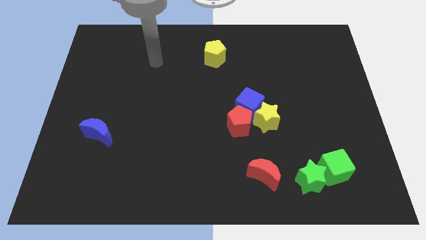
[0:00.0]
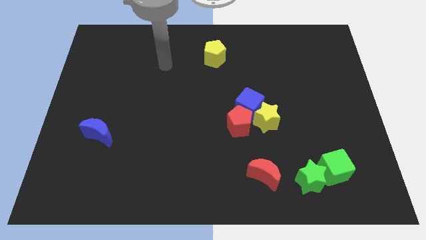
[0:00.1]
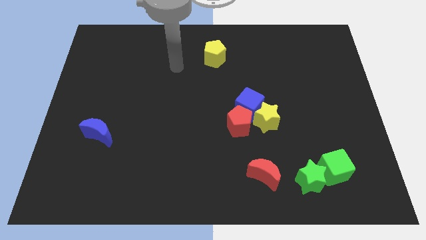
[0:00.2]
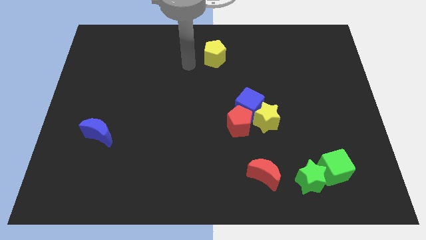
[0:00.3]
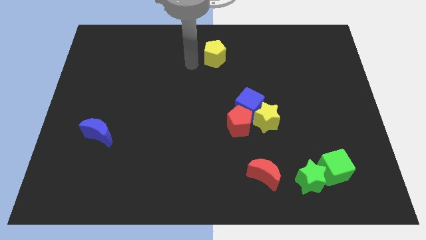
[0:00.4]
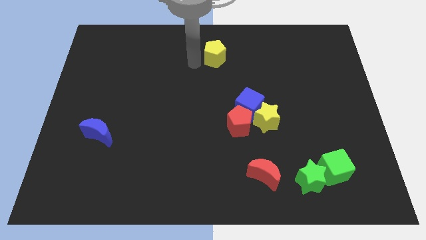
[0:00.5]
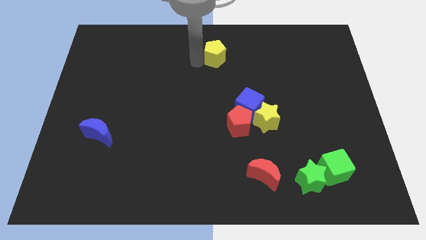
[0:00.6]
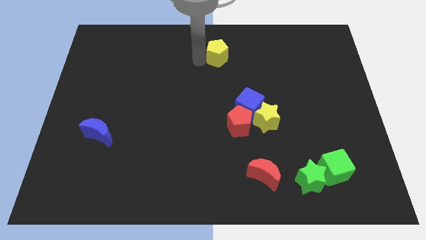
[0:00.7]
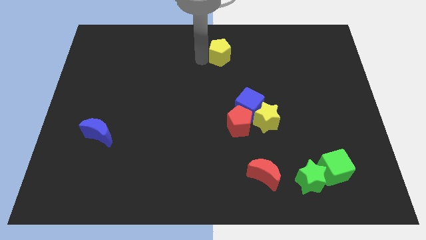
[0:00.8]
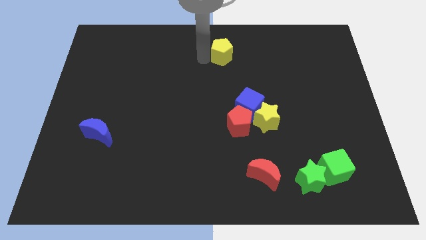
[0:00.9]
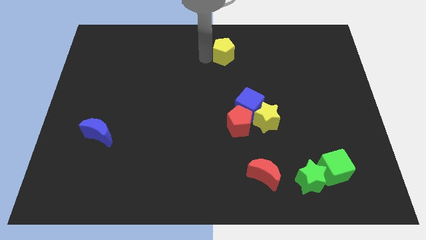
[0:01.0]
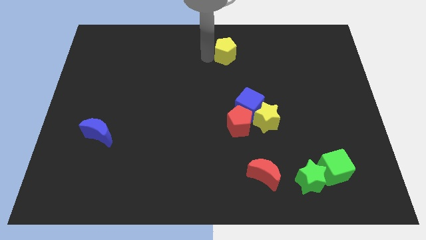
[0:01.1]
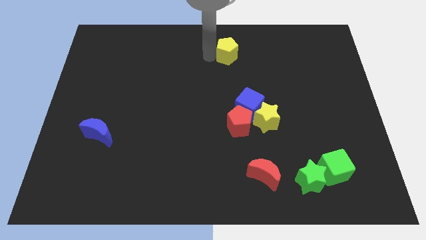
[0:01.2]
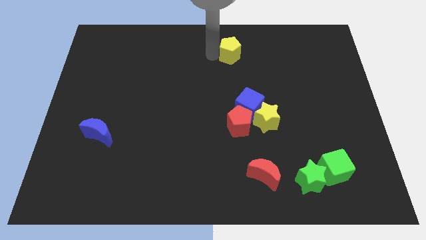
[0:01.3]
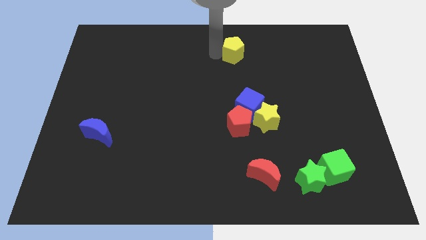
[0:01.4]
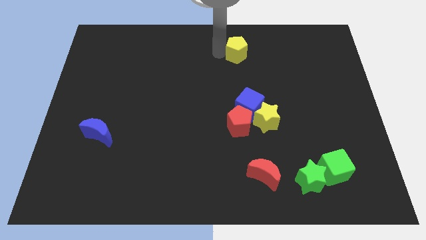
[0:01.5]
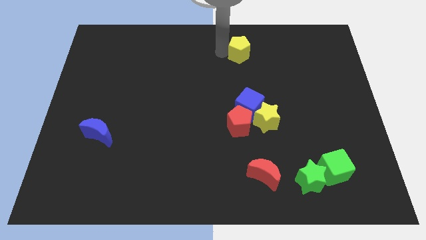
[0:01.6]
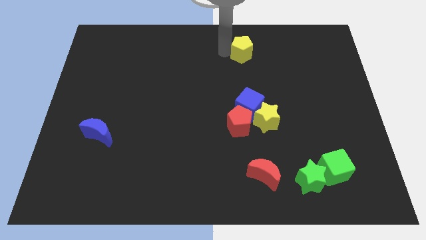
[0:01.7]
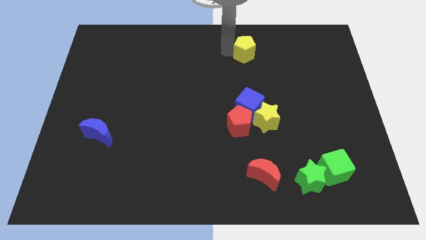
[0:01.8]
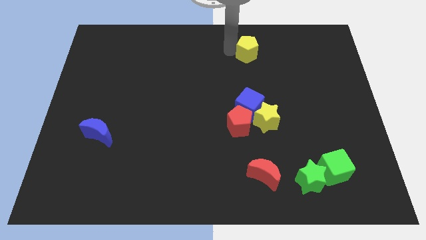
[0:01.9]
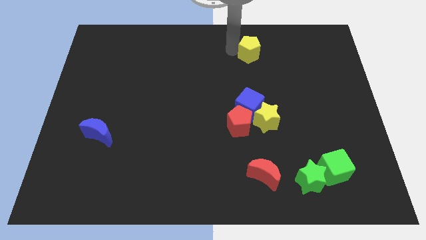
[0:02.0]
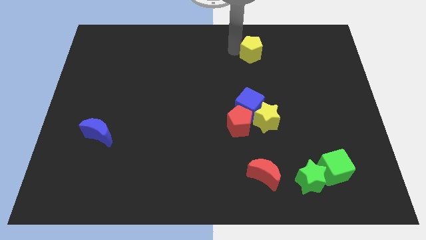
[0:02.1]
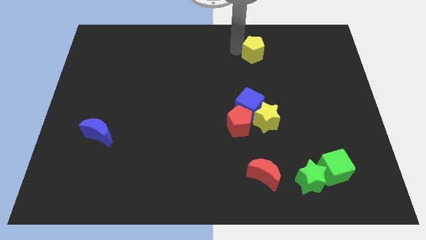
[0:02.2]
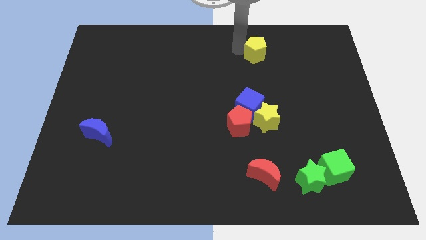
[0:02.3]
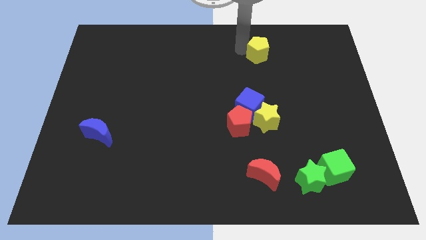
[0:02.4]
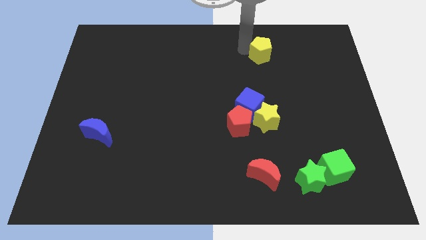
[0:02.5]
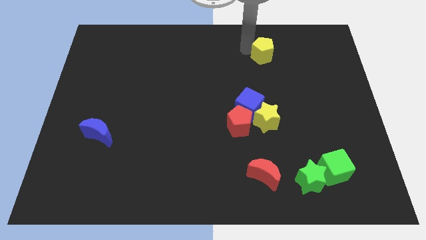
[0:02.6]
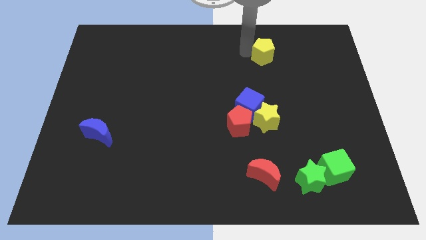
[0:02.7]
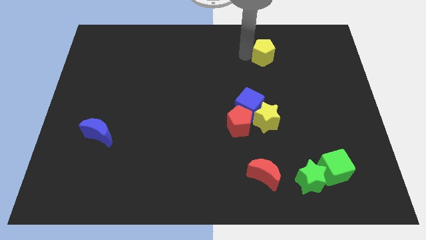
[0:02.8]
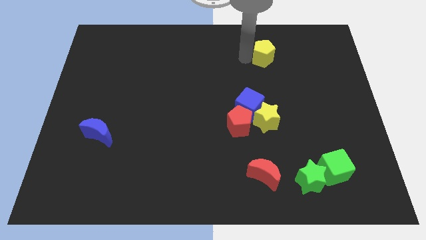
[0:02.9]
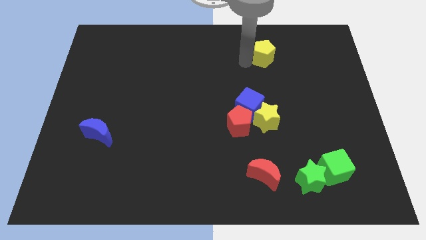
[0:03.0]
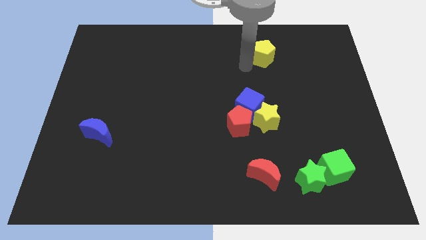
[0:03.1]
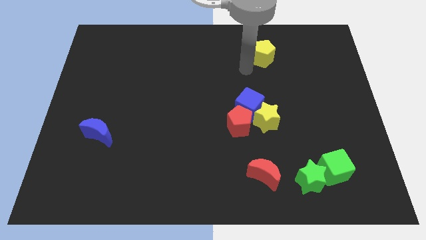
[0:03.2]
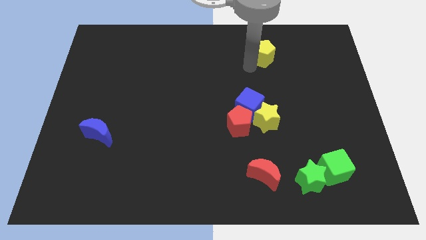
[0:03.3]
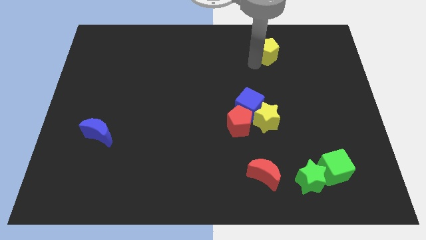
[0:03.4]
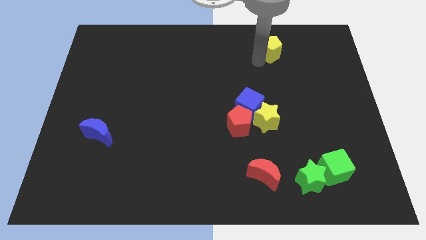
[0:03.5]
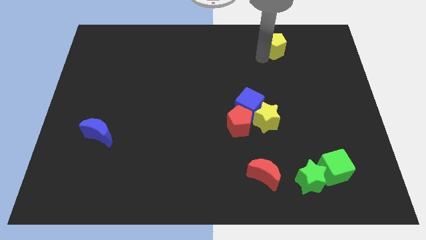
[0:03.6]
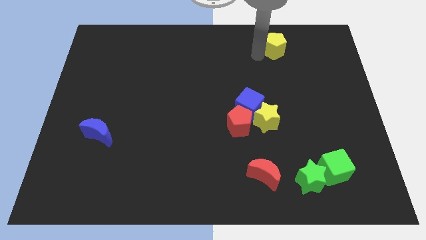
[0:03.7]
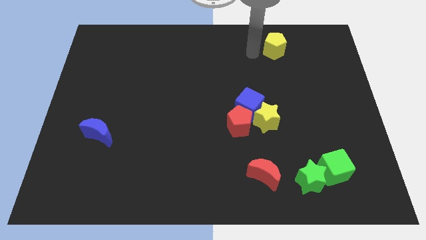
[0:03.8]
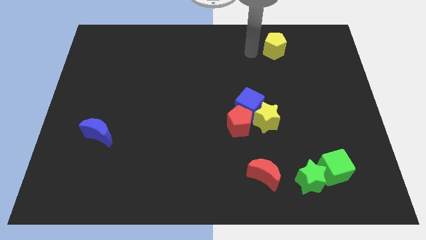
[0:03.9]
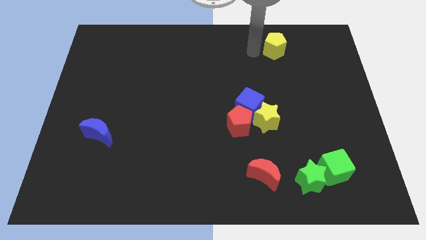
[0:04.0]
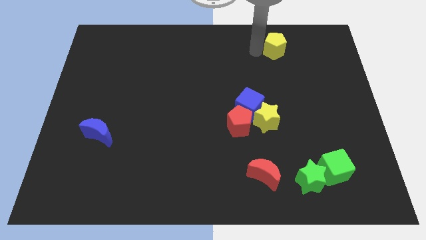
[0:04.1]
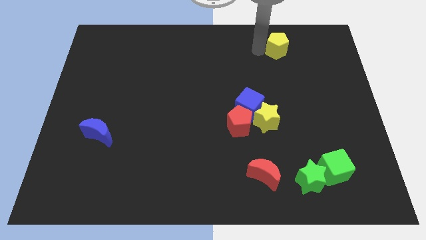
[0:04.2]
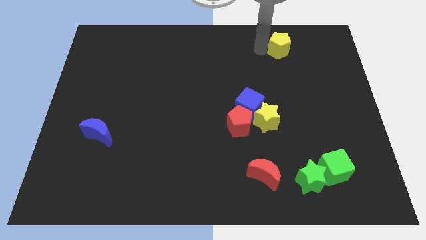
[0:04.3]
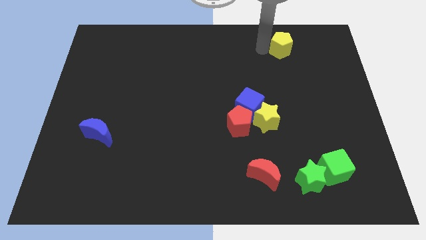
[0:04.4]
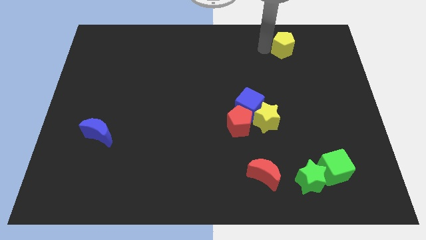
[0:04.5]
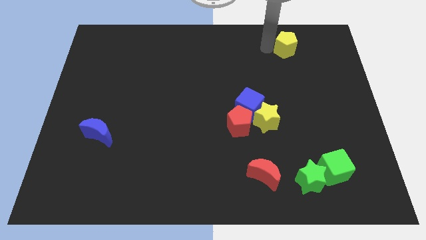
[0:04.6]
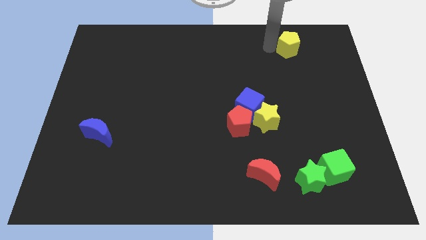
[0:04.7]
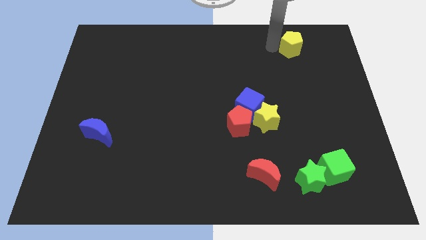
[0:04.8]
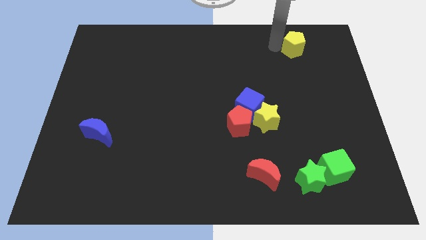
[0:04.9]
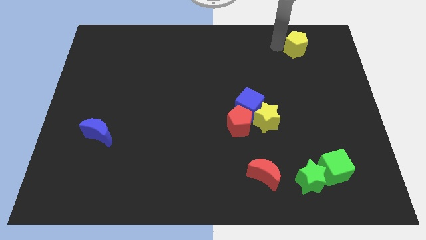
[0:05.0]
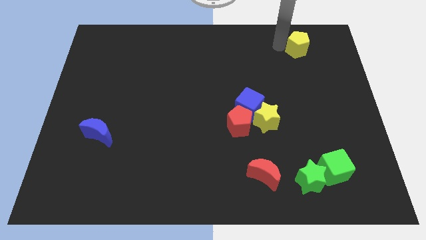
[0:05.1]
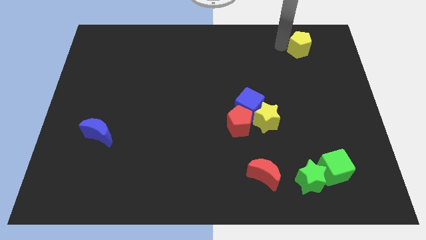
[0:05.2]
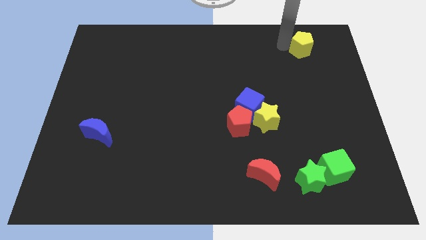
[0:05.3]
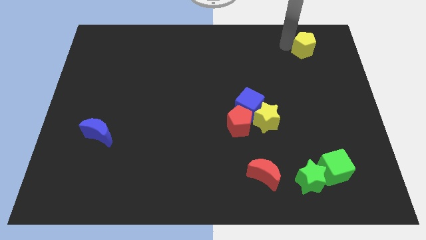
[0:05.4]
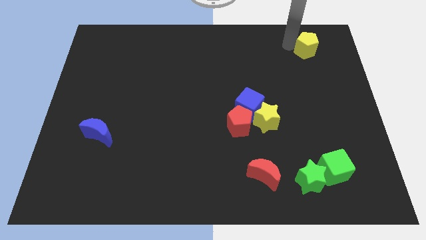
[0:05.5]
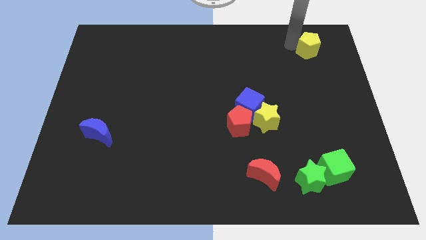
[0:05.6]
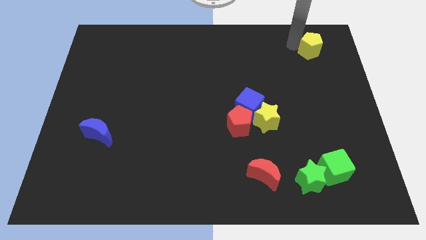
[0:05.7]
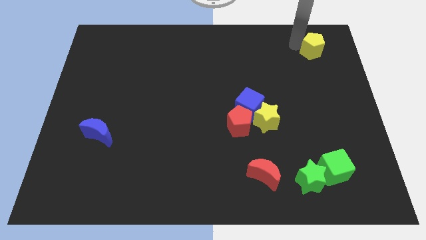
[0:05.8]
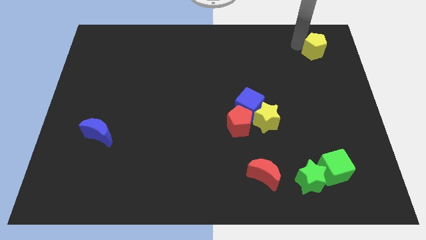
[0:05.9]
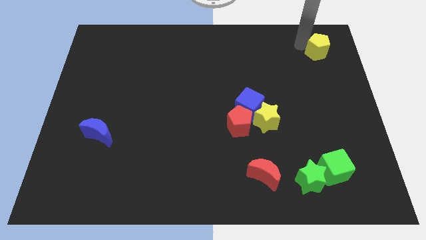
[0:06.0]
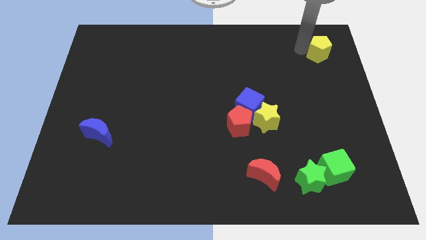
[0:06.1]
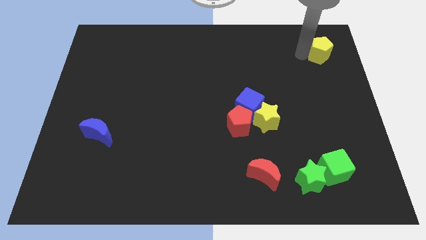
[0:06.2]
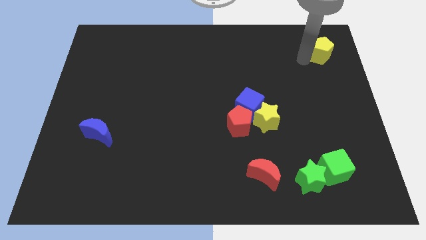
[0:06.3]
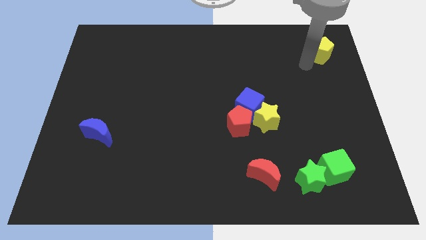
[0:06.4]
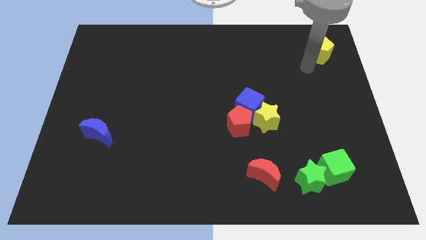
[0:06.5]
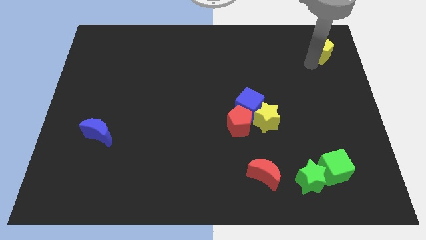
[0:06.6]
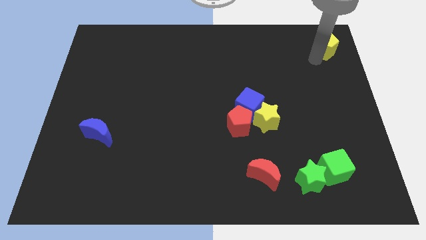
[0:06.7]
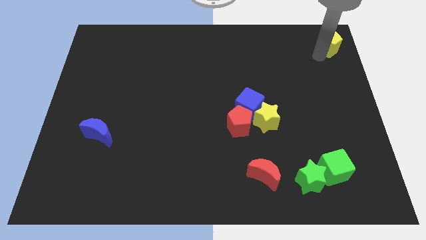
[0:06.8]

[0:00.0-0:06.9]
move the yellow pentagon to the top right
